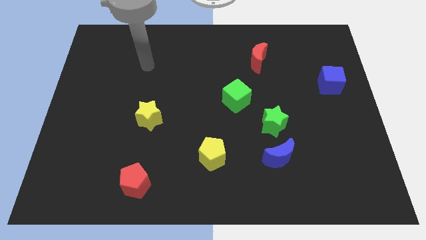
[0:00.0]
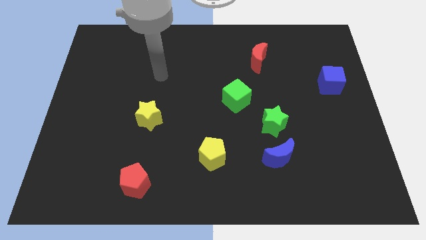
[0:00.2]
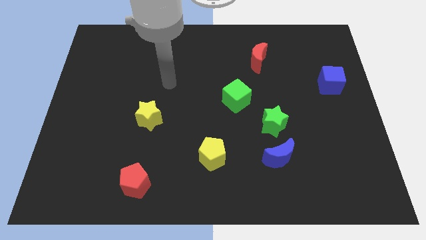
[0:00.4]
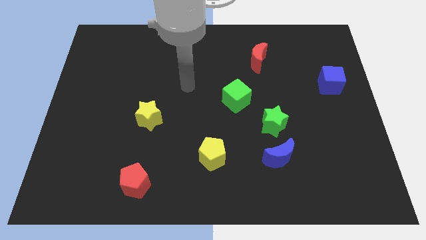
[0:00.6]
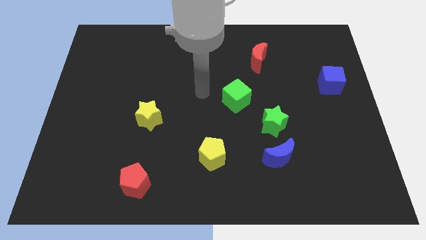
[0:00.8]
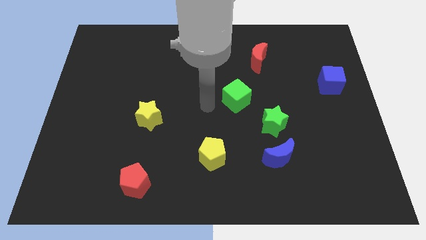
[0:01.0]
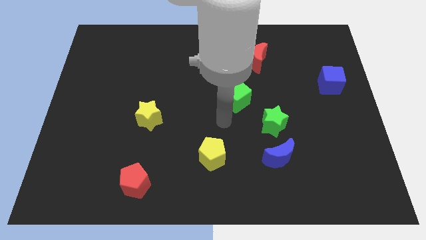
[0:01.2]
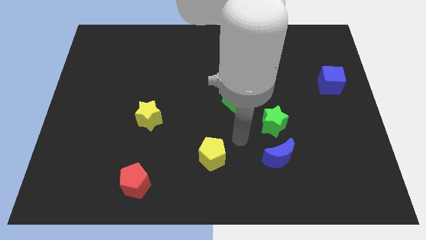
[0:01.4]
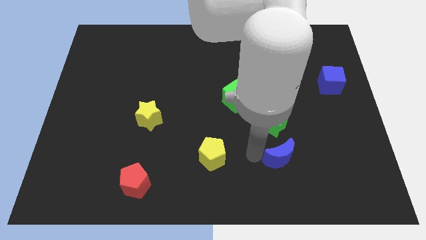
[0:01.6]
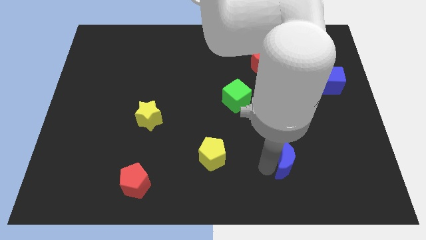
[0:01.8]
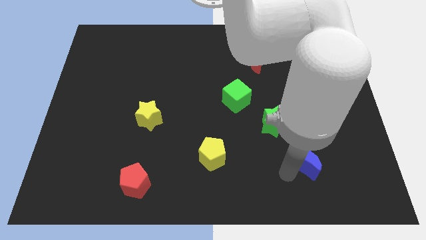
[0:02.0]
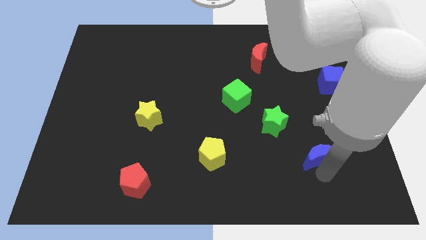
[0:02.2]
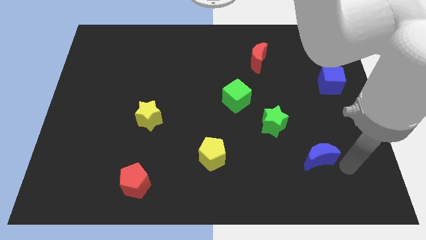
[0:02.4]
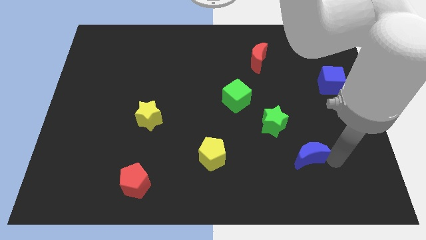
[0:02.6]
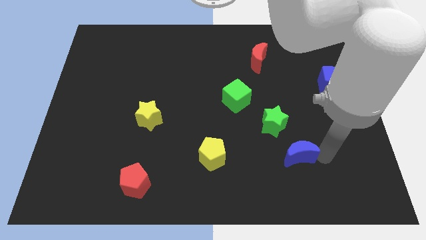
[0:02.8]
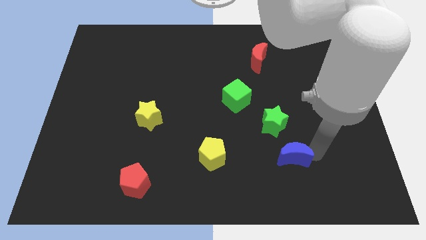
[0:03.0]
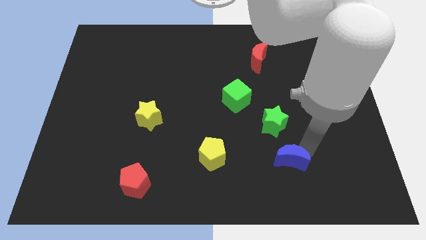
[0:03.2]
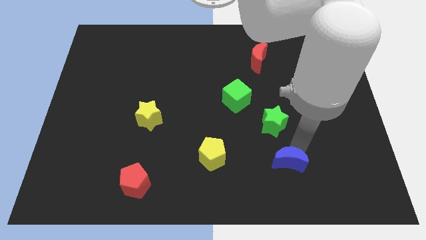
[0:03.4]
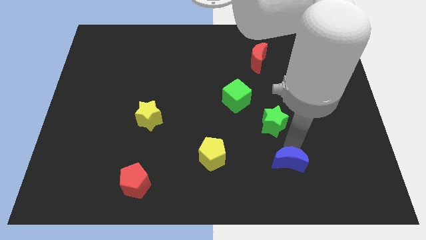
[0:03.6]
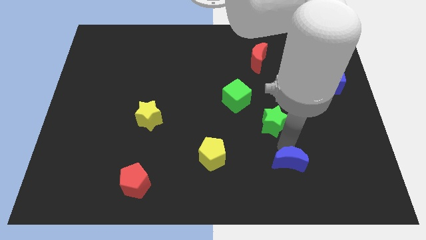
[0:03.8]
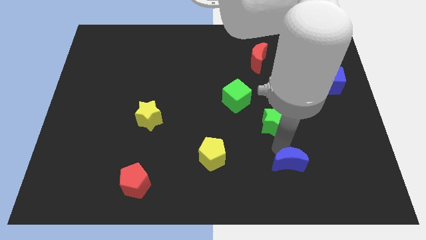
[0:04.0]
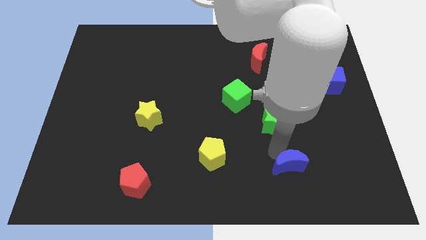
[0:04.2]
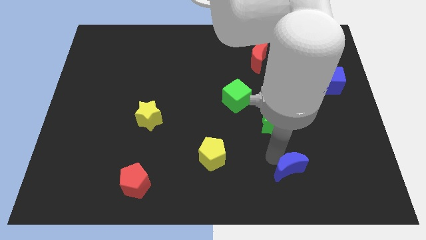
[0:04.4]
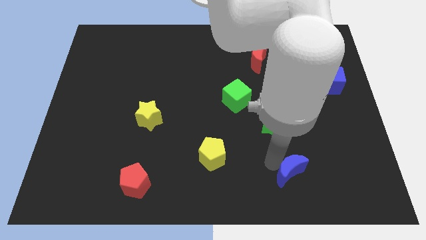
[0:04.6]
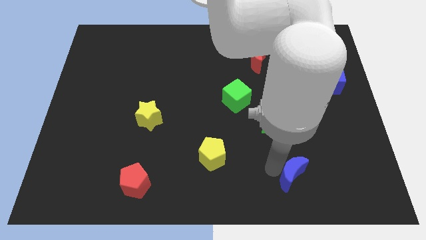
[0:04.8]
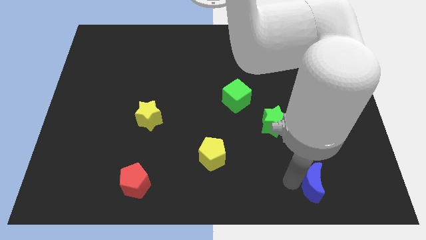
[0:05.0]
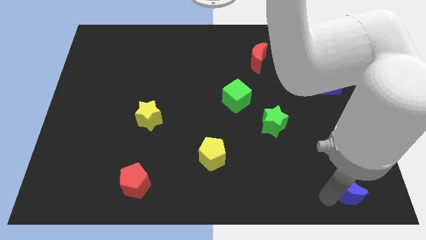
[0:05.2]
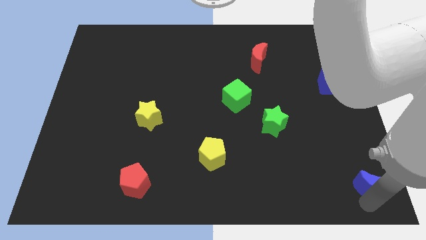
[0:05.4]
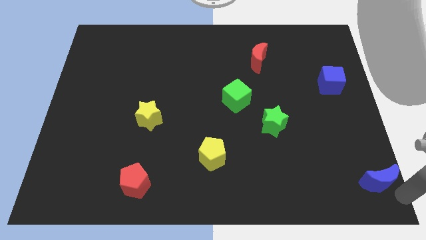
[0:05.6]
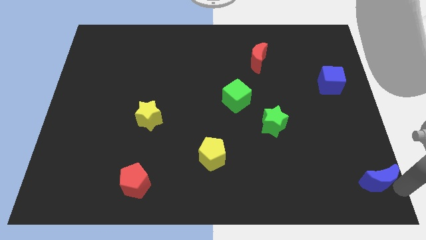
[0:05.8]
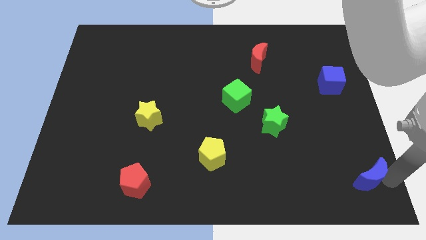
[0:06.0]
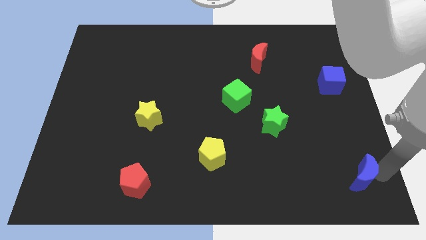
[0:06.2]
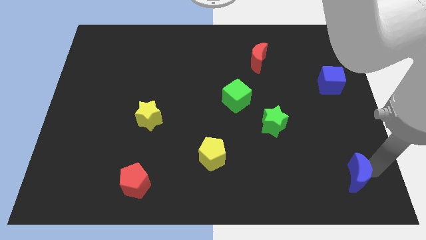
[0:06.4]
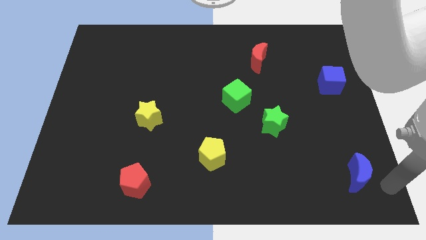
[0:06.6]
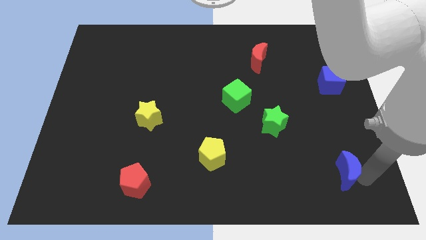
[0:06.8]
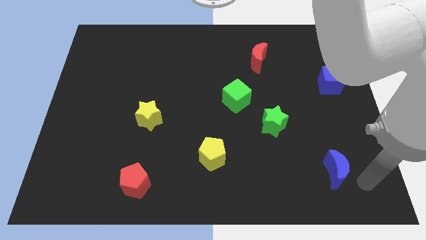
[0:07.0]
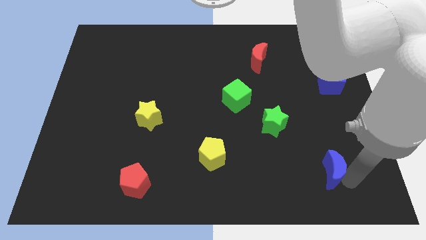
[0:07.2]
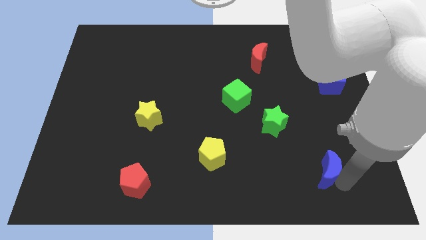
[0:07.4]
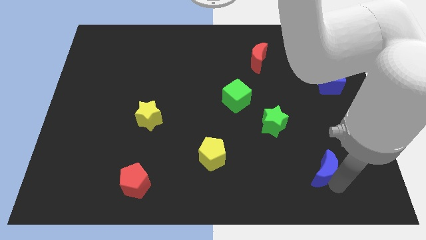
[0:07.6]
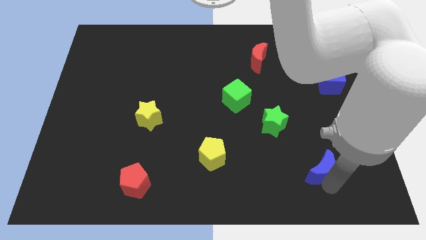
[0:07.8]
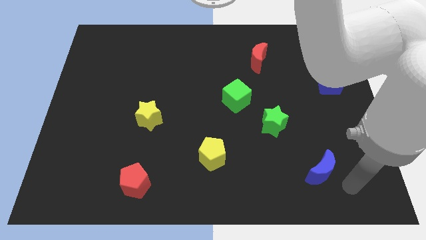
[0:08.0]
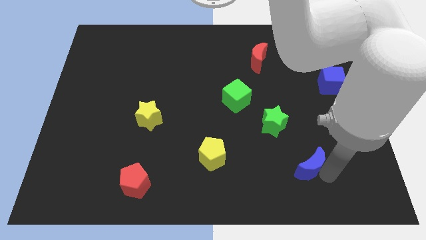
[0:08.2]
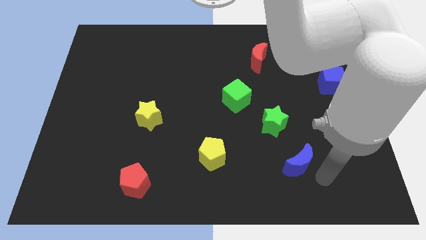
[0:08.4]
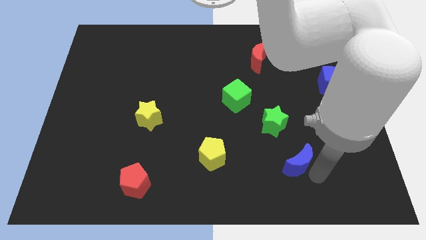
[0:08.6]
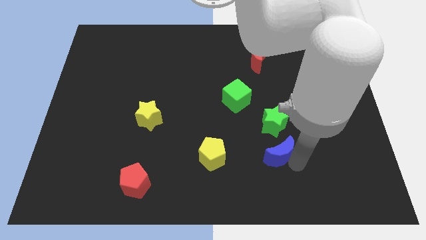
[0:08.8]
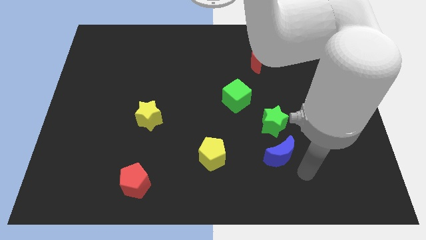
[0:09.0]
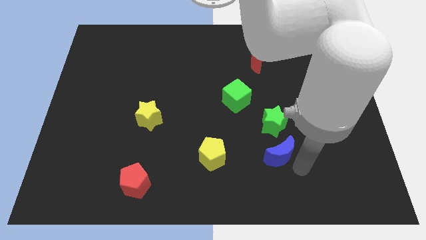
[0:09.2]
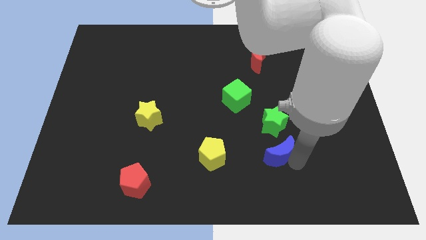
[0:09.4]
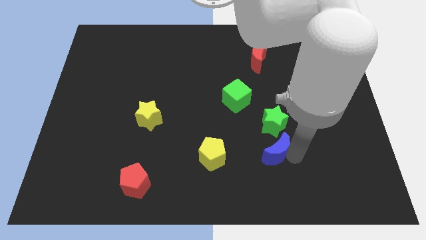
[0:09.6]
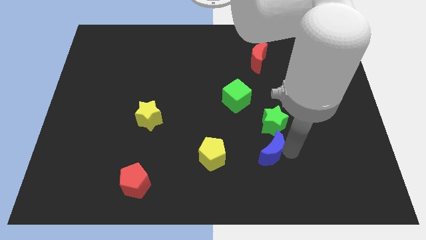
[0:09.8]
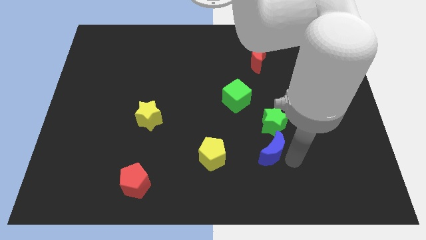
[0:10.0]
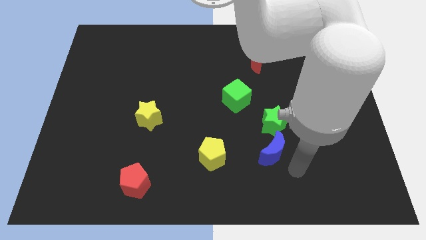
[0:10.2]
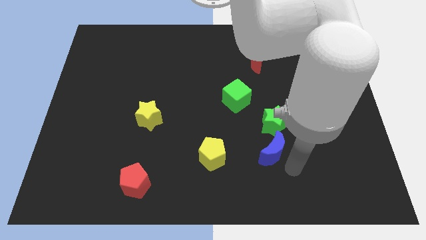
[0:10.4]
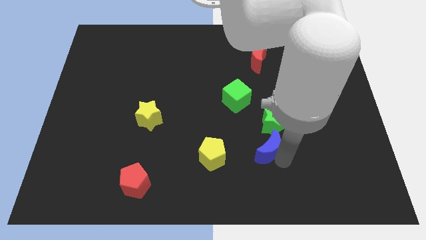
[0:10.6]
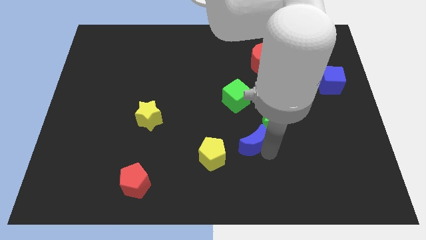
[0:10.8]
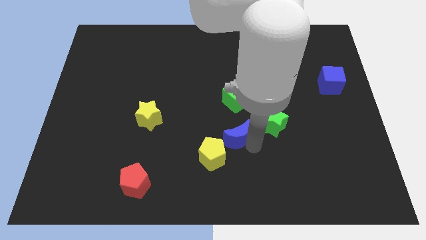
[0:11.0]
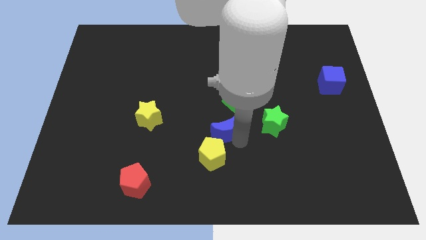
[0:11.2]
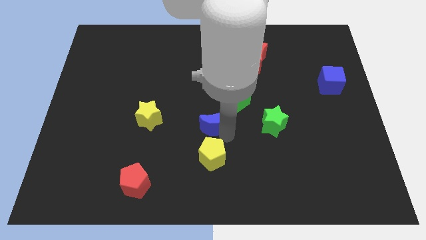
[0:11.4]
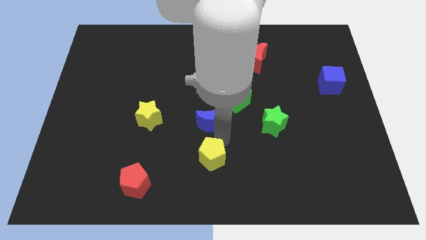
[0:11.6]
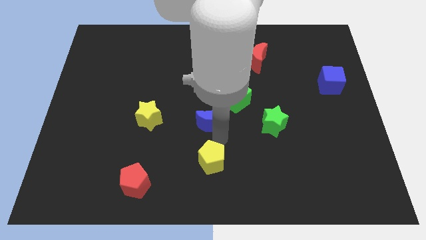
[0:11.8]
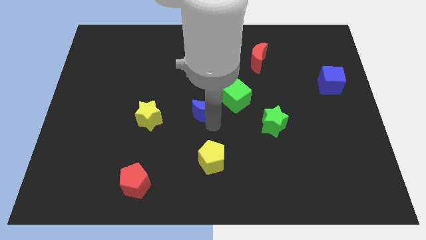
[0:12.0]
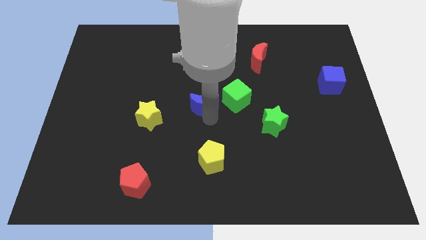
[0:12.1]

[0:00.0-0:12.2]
push the blue moon diagonally upwards and to the left

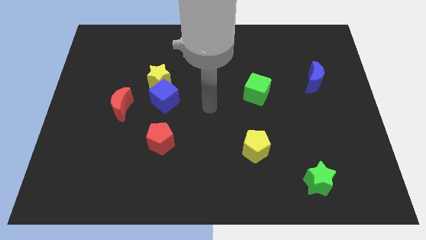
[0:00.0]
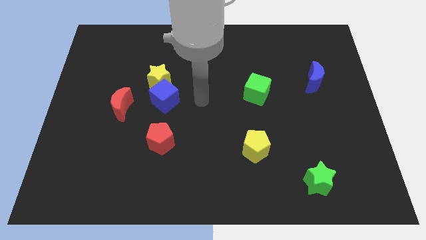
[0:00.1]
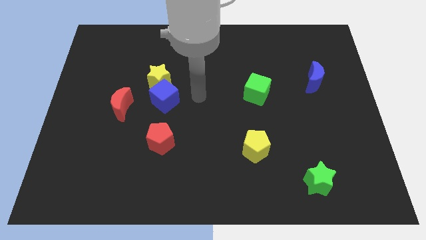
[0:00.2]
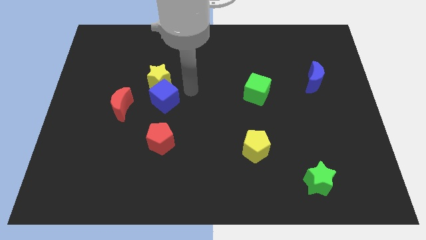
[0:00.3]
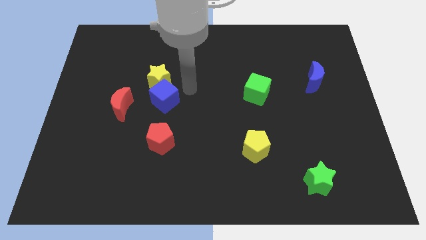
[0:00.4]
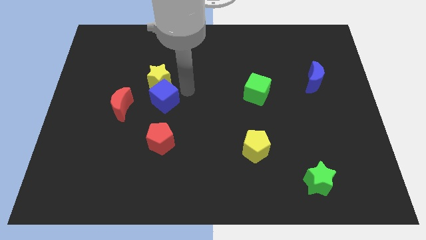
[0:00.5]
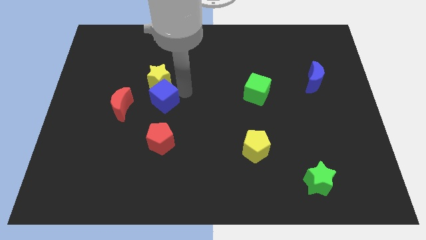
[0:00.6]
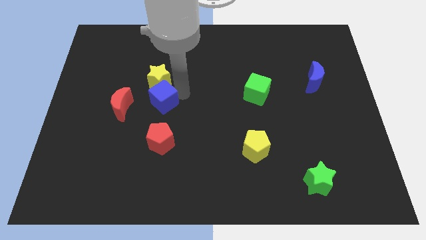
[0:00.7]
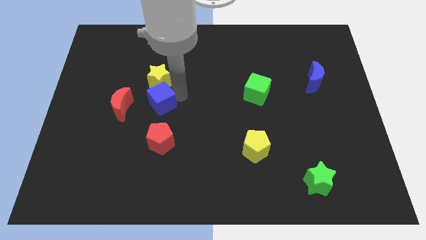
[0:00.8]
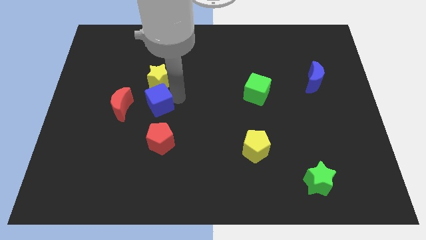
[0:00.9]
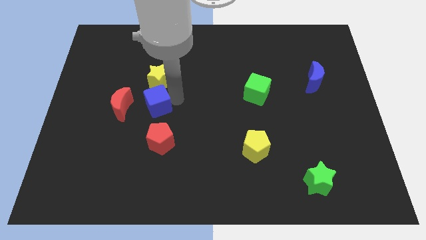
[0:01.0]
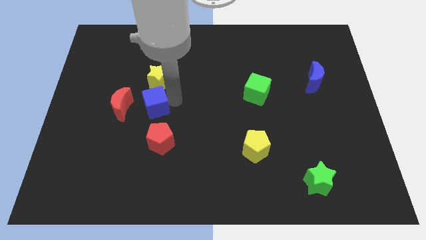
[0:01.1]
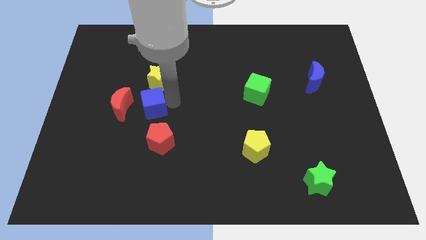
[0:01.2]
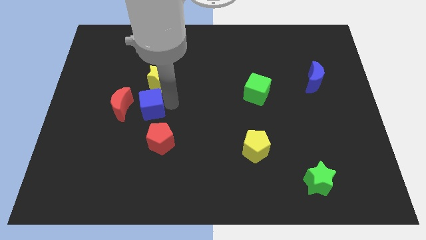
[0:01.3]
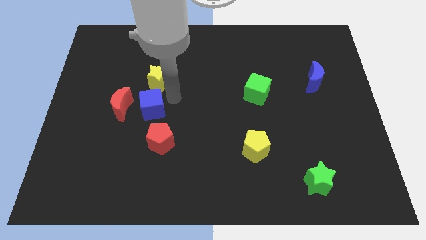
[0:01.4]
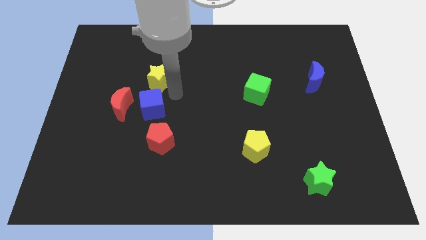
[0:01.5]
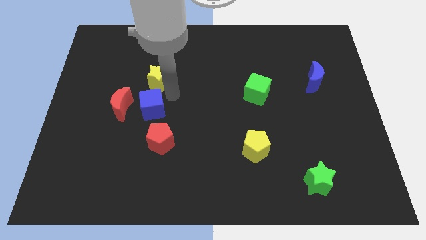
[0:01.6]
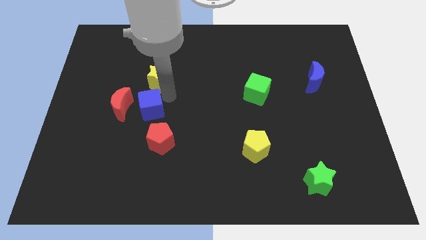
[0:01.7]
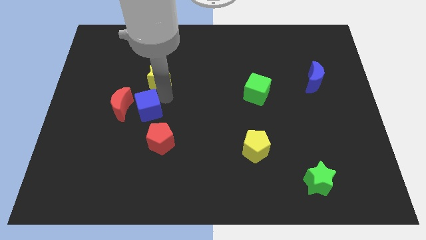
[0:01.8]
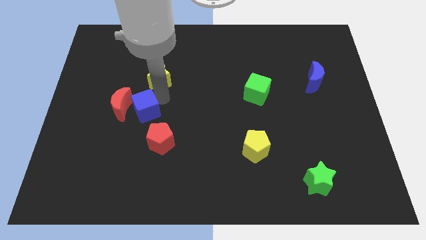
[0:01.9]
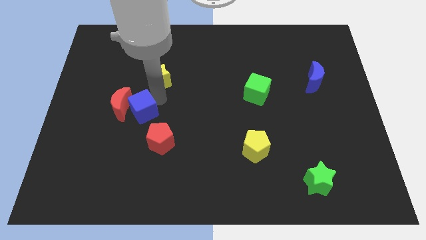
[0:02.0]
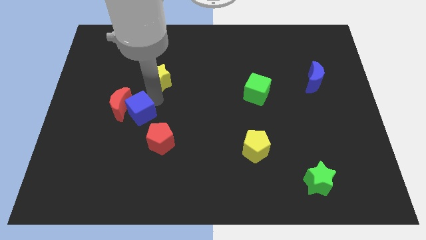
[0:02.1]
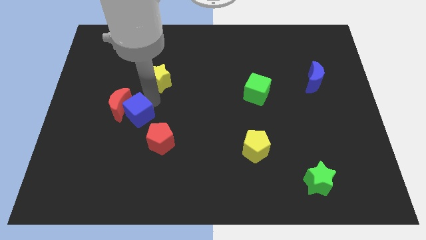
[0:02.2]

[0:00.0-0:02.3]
slide the blue cube down and to the left diagonally slightly
